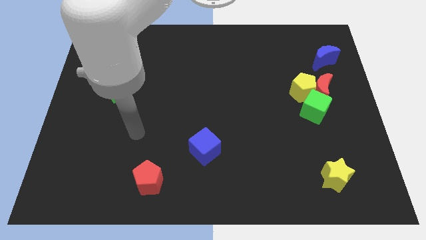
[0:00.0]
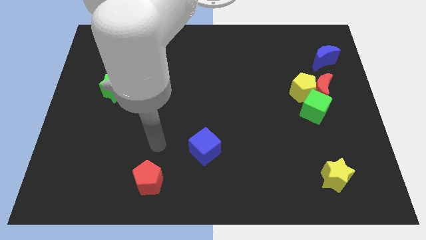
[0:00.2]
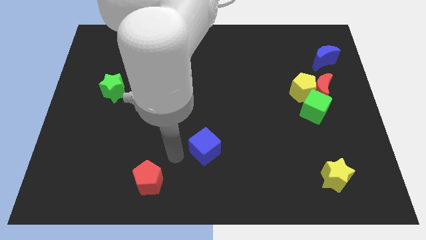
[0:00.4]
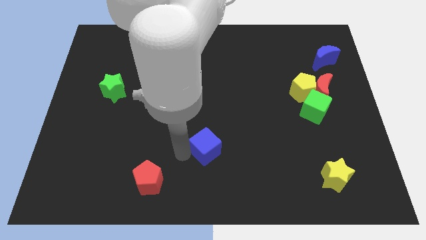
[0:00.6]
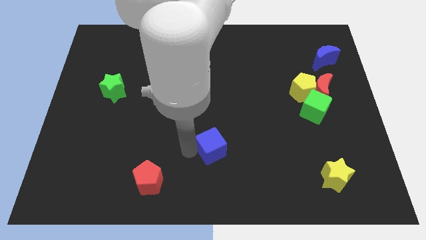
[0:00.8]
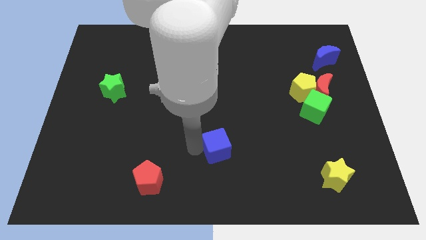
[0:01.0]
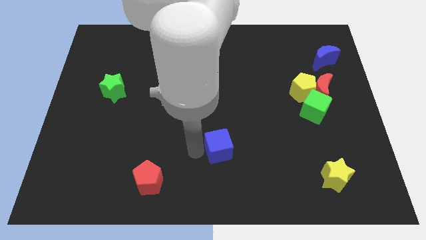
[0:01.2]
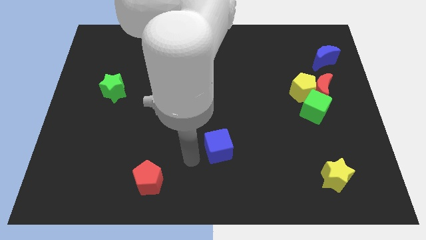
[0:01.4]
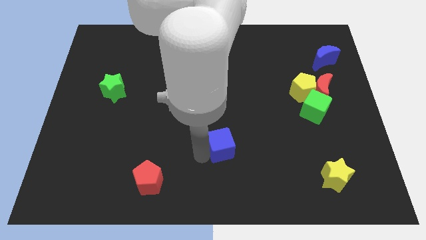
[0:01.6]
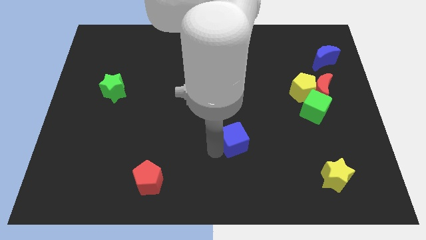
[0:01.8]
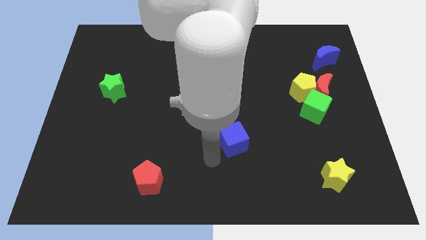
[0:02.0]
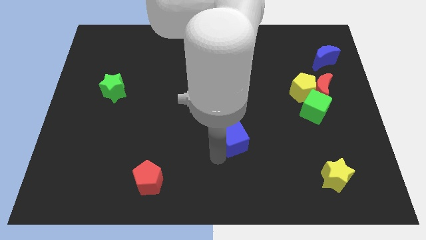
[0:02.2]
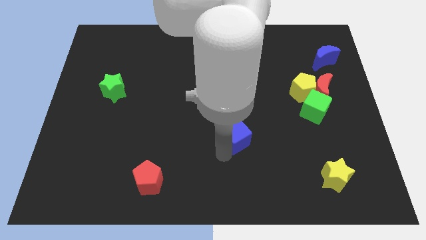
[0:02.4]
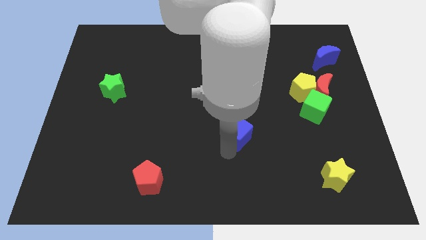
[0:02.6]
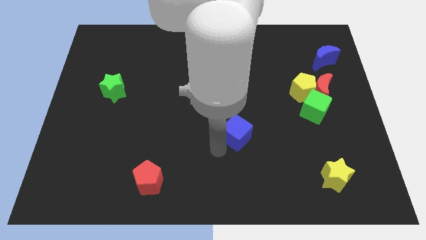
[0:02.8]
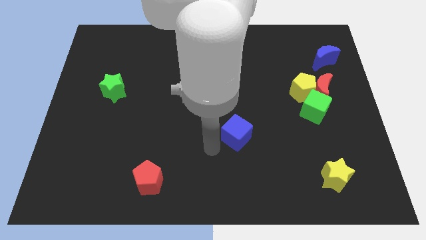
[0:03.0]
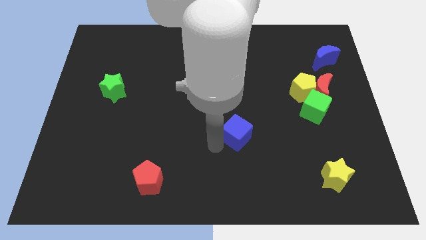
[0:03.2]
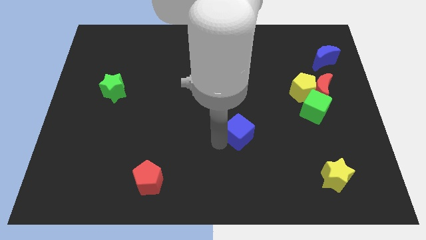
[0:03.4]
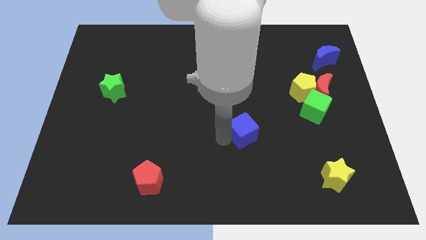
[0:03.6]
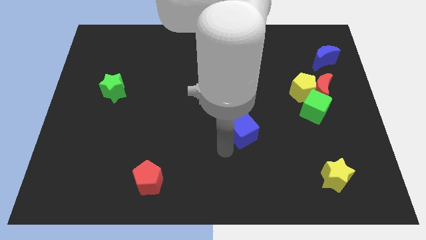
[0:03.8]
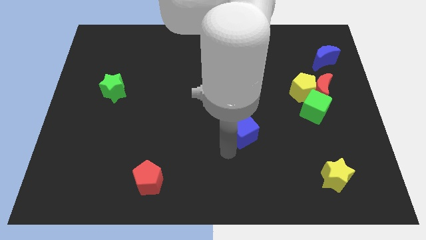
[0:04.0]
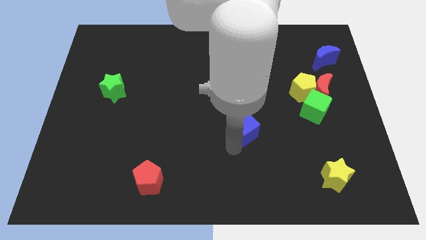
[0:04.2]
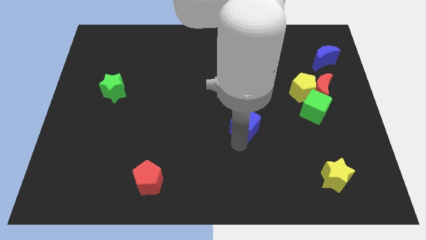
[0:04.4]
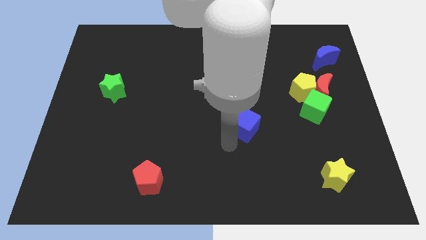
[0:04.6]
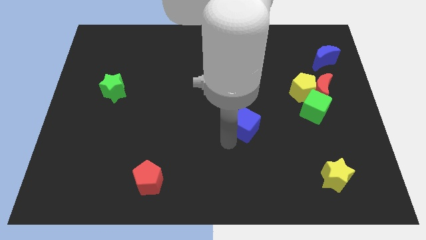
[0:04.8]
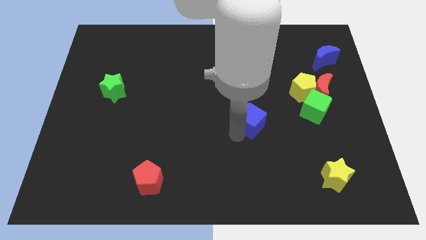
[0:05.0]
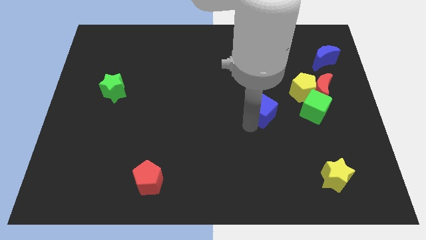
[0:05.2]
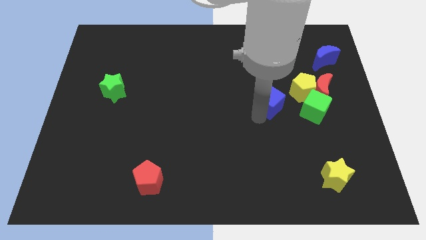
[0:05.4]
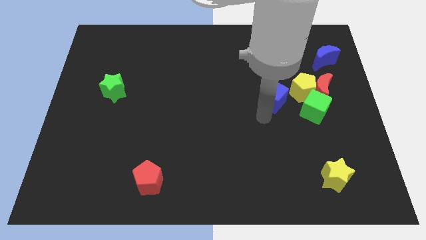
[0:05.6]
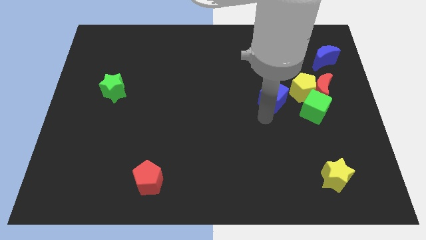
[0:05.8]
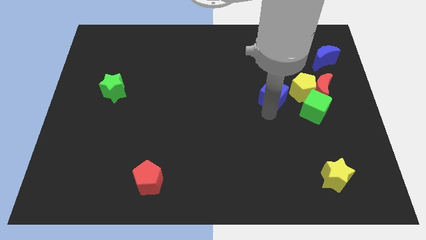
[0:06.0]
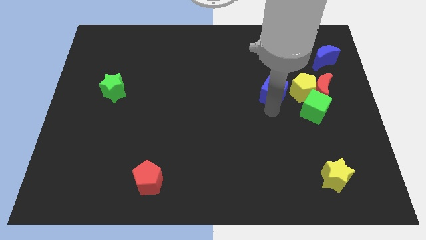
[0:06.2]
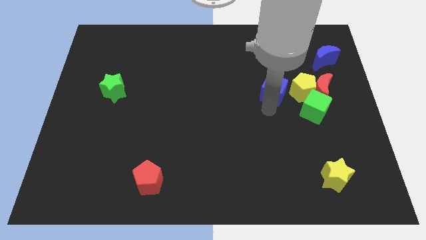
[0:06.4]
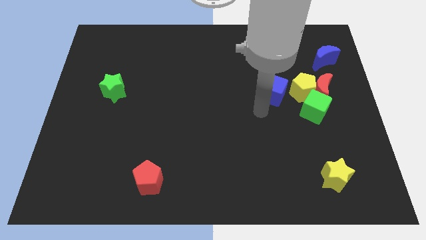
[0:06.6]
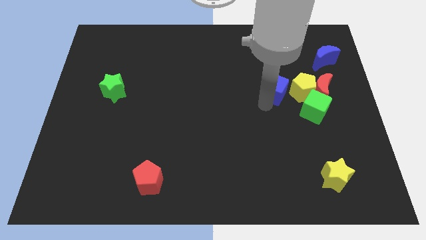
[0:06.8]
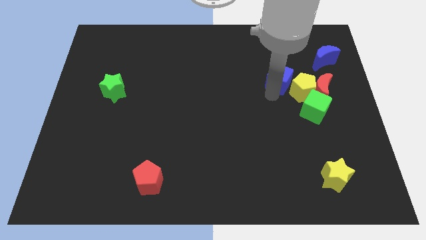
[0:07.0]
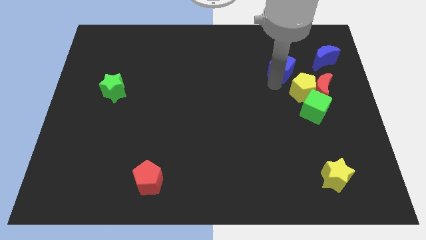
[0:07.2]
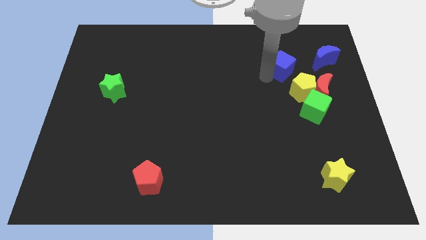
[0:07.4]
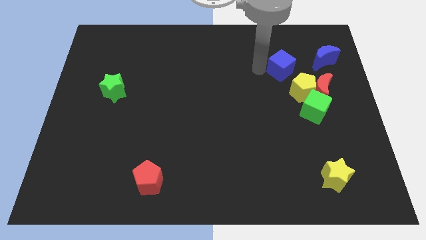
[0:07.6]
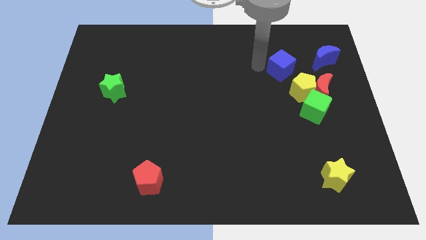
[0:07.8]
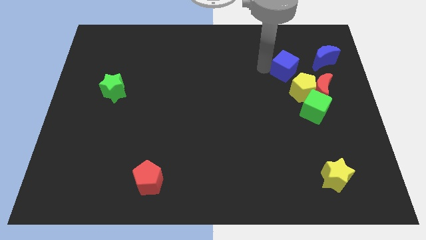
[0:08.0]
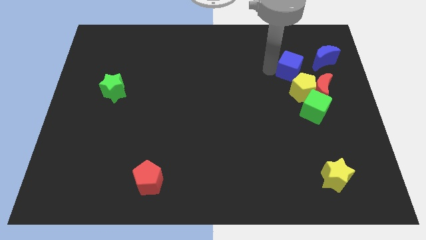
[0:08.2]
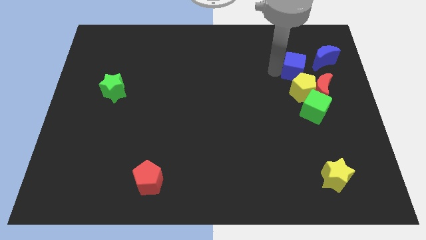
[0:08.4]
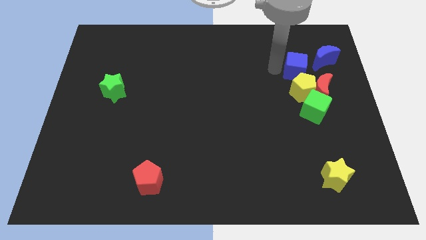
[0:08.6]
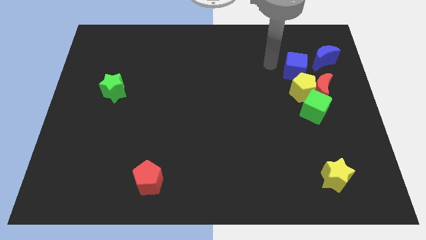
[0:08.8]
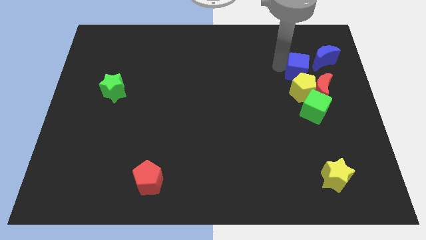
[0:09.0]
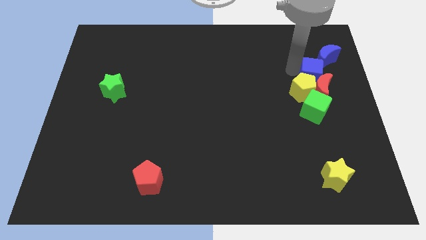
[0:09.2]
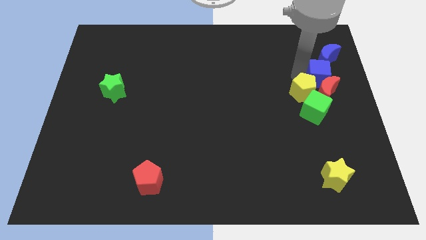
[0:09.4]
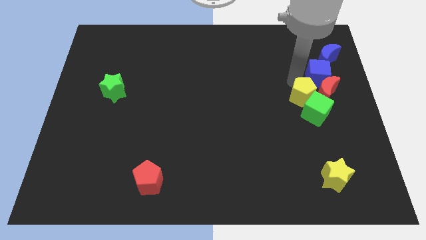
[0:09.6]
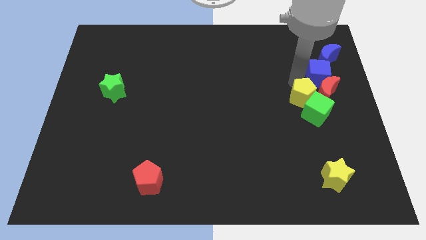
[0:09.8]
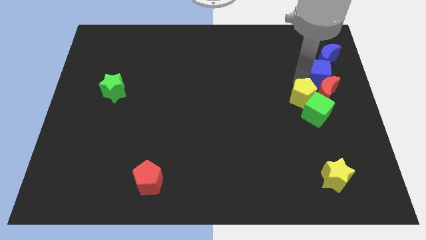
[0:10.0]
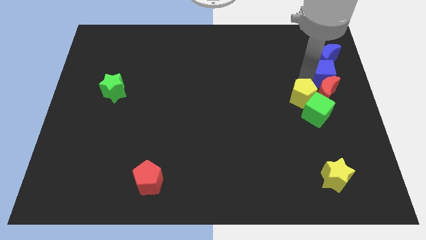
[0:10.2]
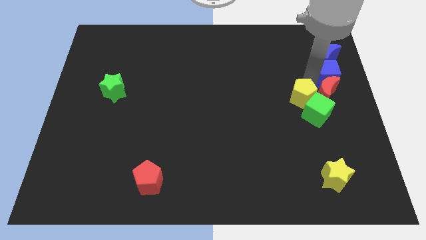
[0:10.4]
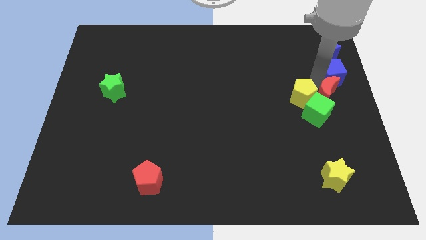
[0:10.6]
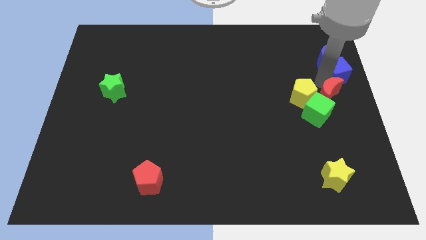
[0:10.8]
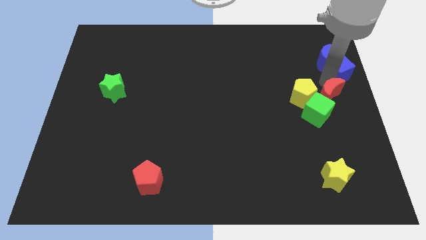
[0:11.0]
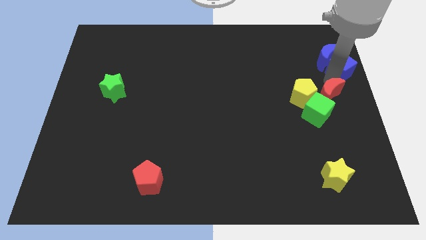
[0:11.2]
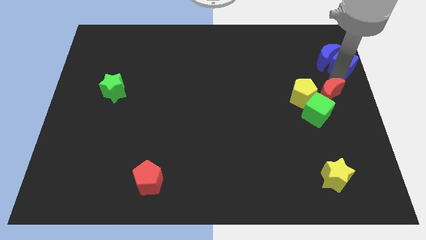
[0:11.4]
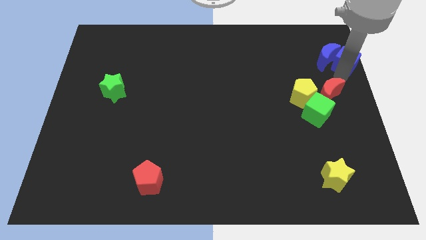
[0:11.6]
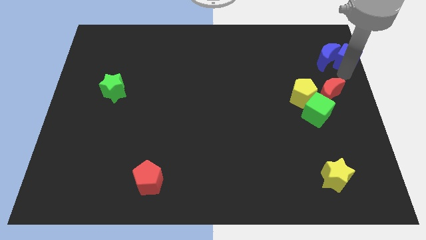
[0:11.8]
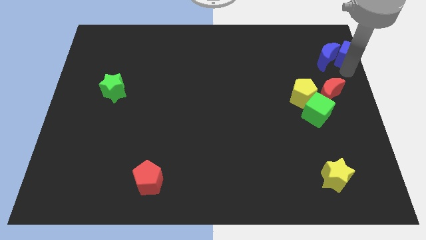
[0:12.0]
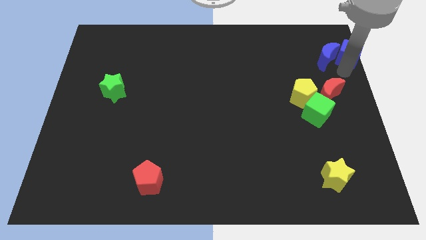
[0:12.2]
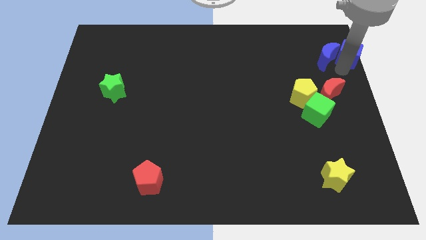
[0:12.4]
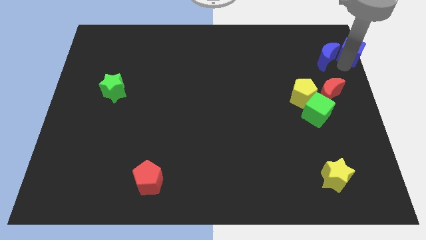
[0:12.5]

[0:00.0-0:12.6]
slide the blue cube to the upper right corner

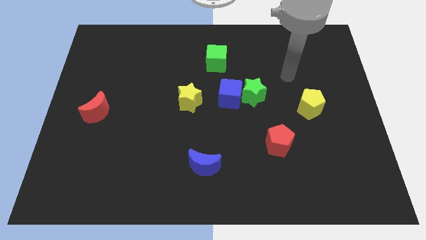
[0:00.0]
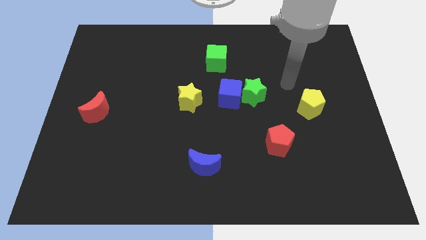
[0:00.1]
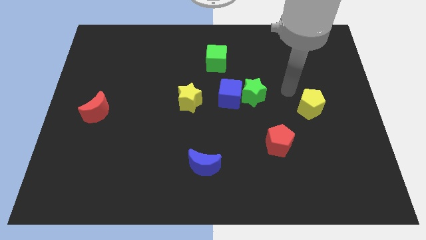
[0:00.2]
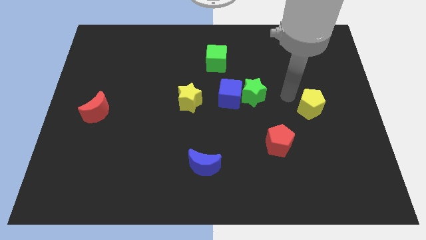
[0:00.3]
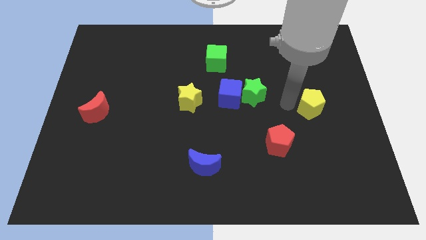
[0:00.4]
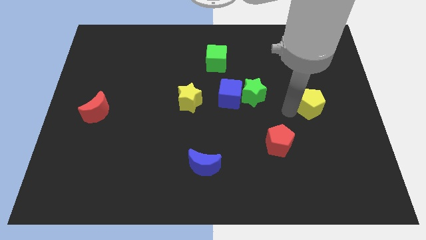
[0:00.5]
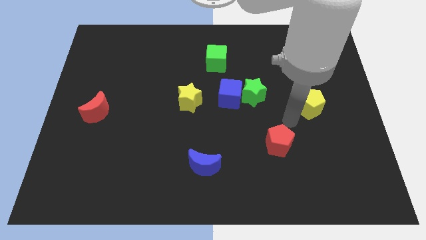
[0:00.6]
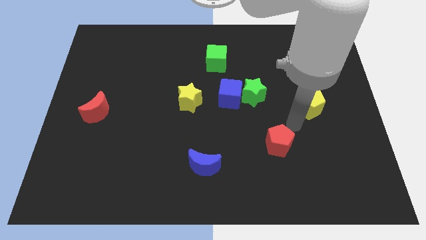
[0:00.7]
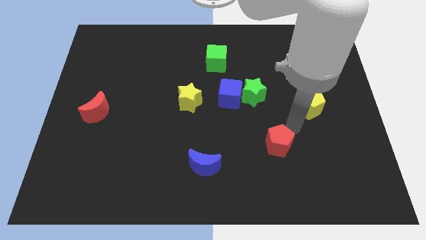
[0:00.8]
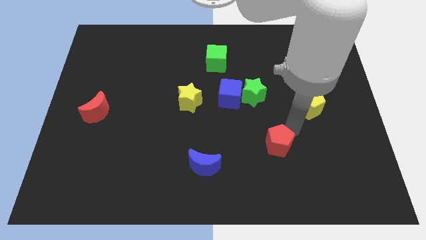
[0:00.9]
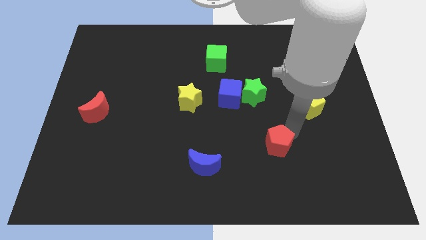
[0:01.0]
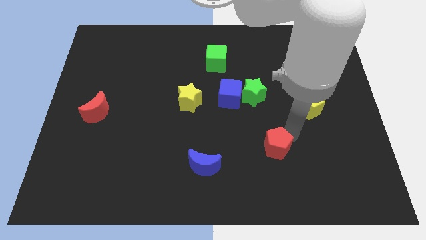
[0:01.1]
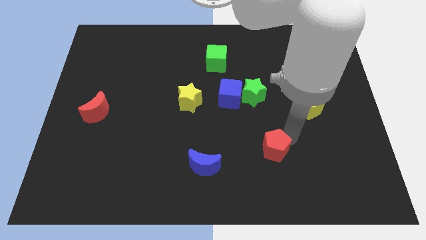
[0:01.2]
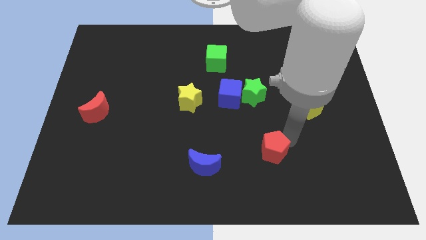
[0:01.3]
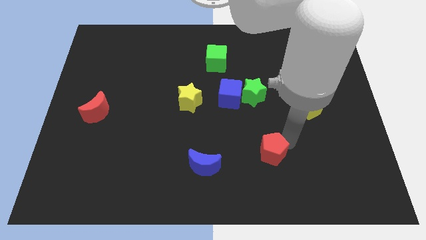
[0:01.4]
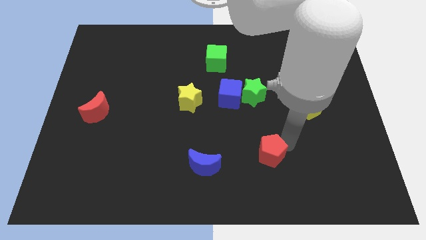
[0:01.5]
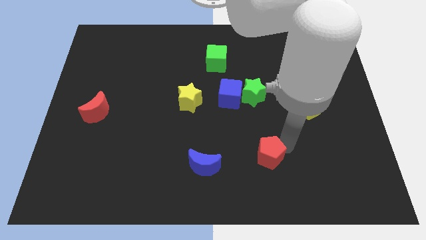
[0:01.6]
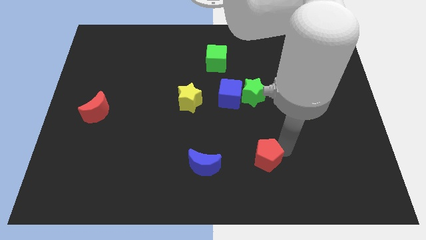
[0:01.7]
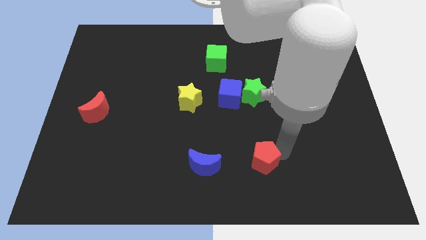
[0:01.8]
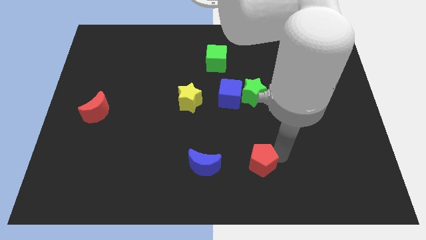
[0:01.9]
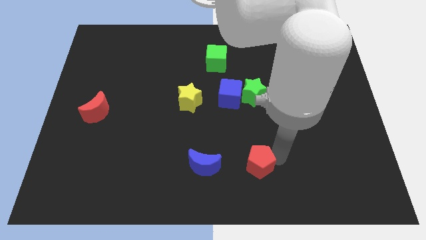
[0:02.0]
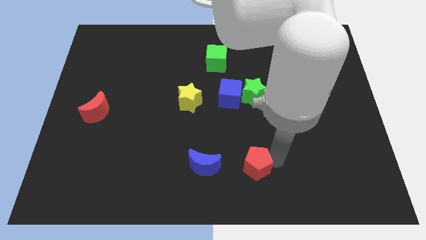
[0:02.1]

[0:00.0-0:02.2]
slide the red pentagon to the bottom
